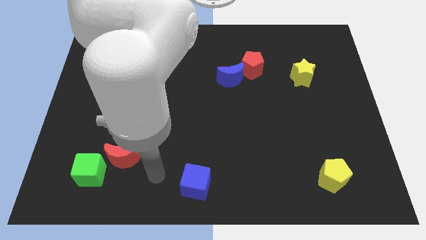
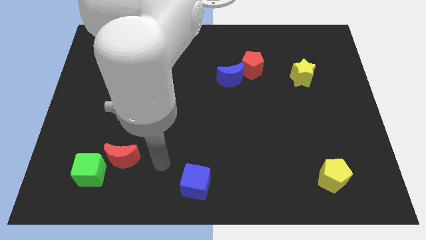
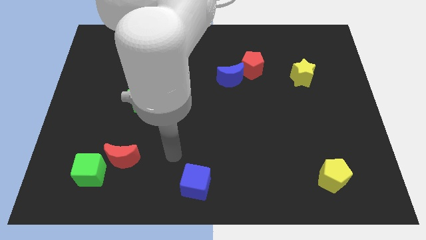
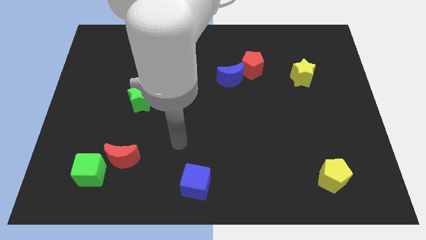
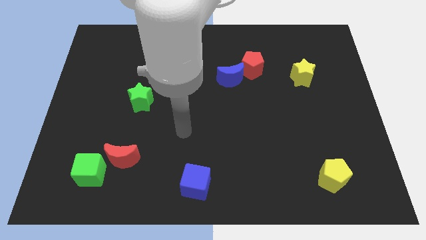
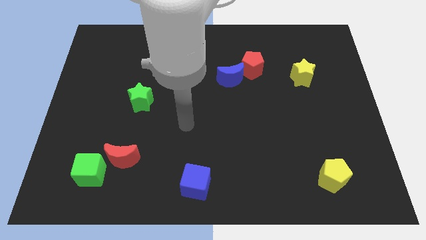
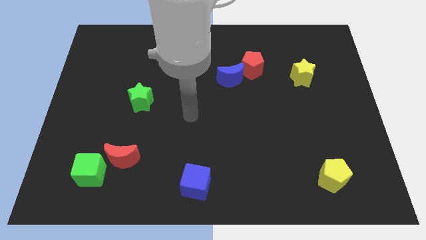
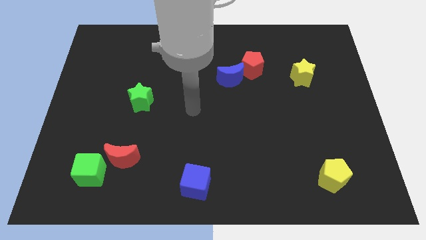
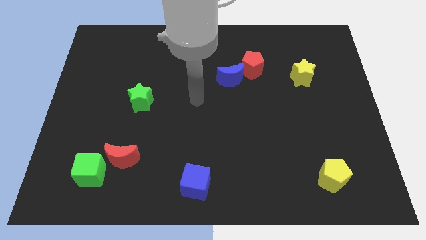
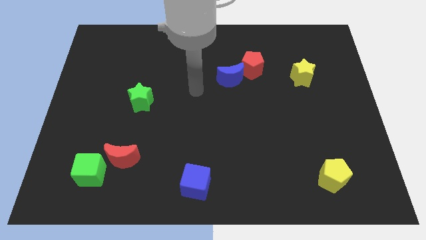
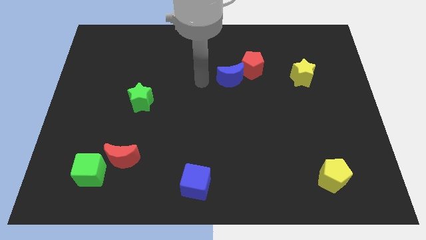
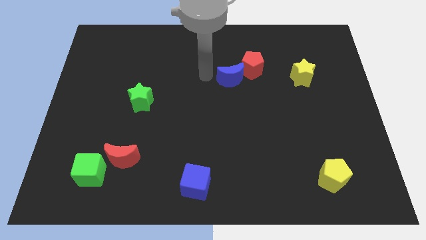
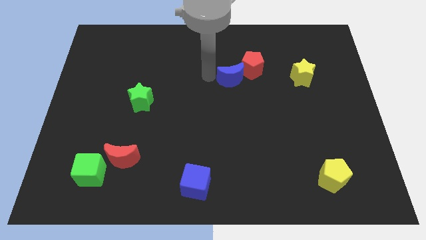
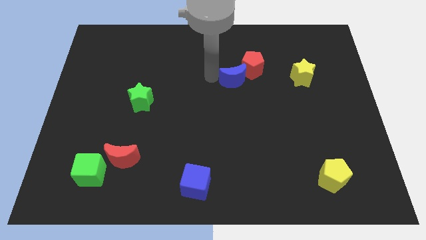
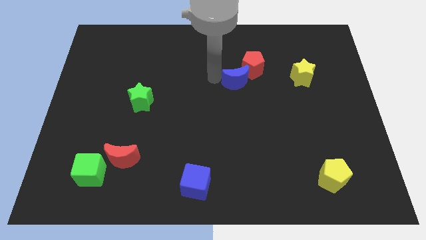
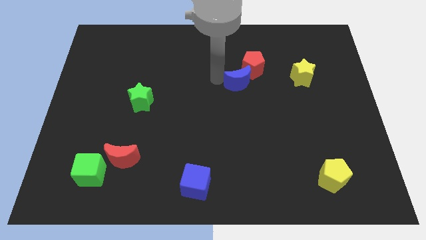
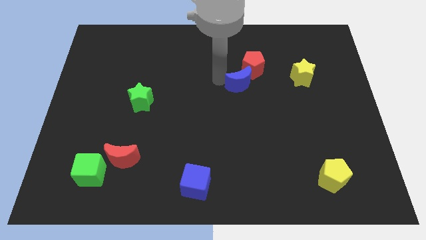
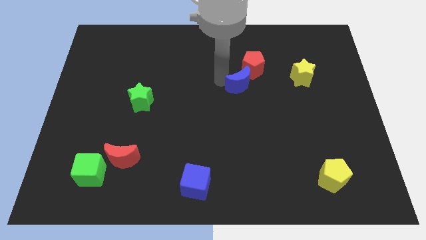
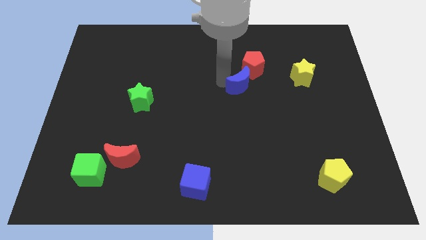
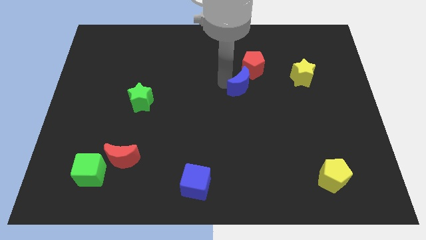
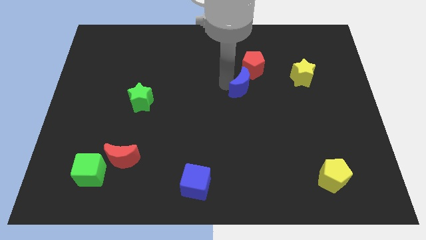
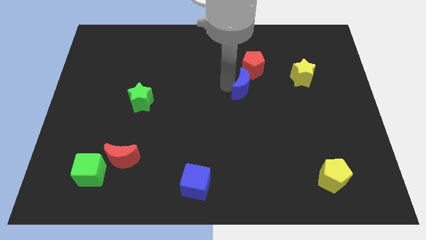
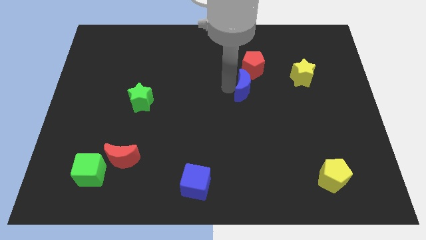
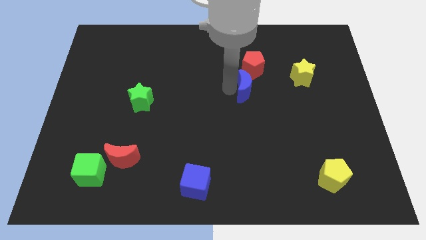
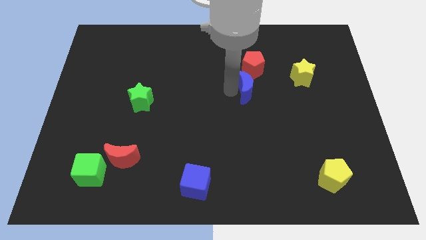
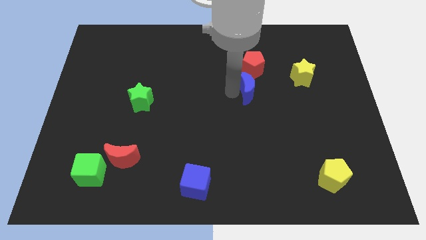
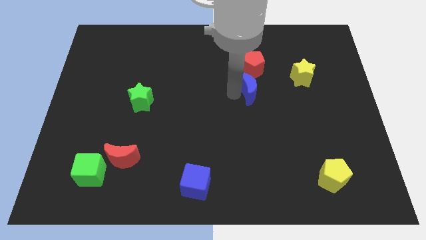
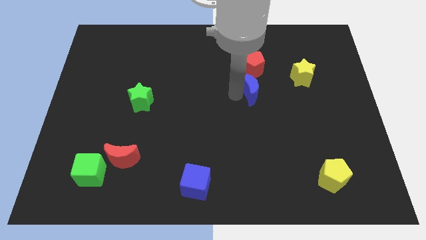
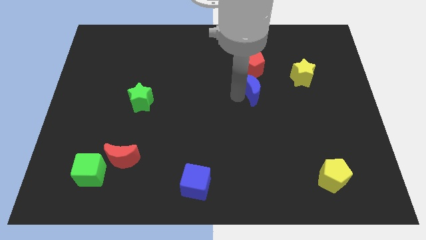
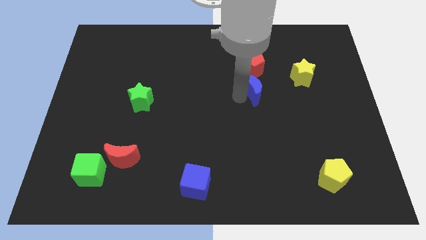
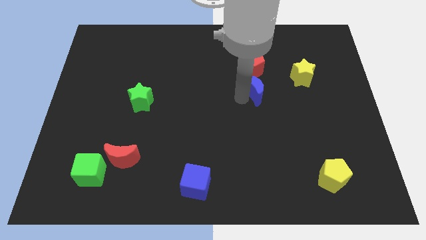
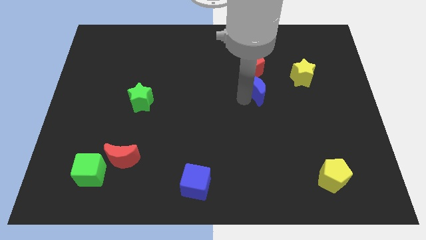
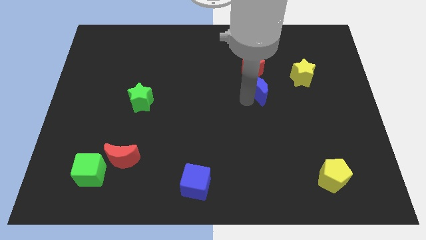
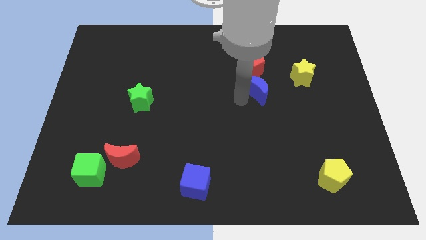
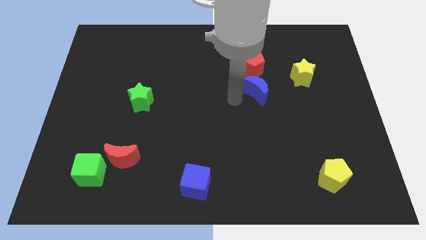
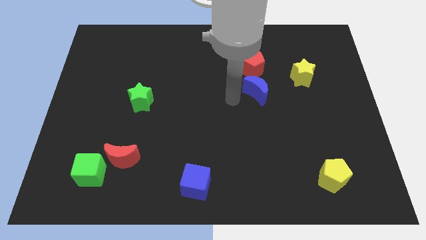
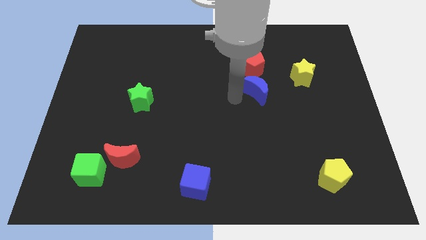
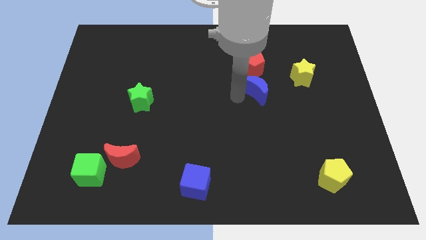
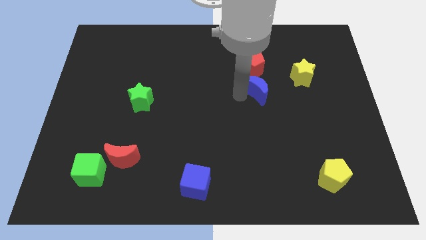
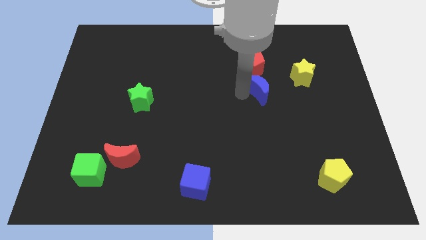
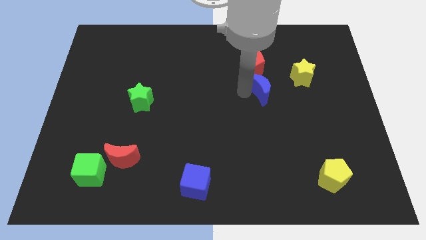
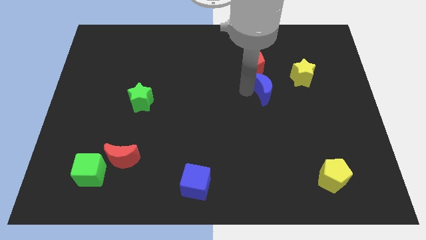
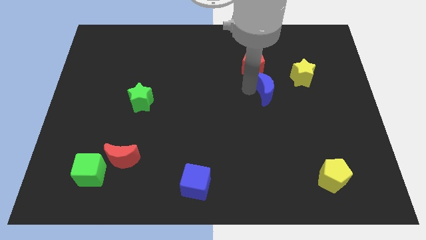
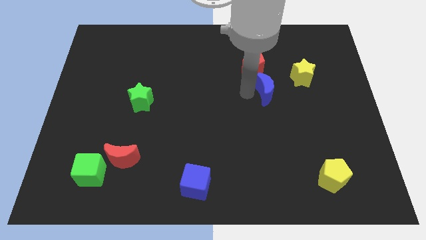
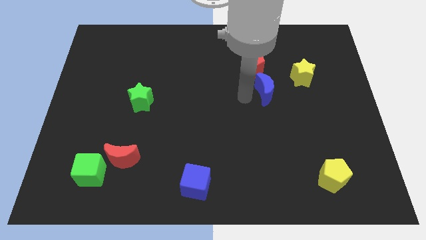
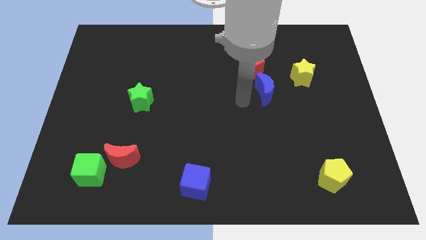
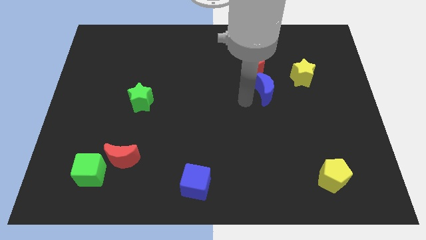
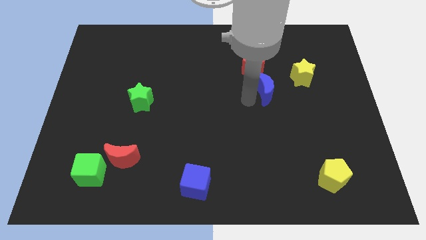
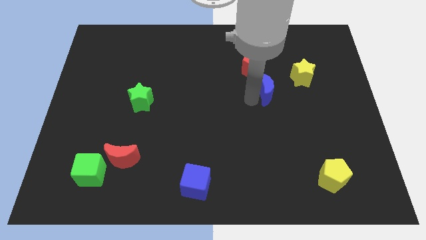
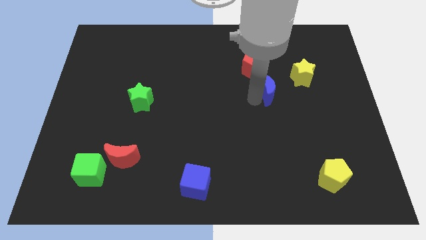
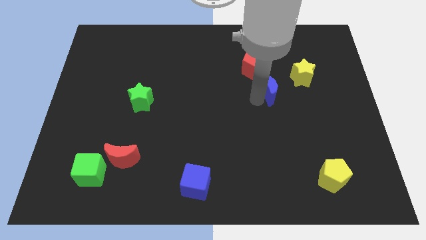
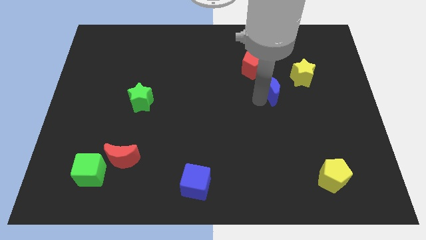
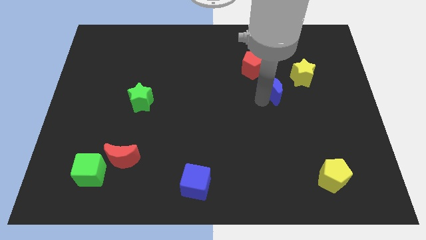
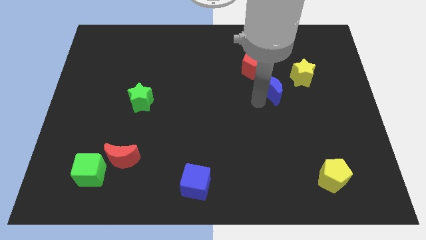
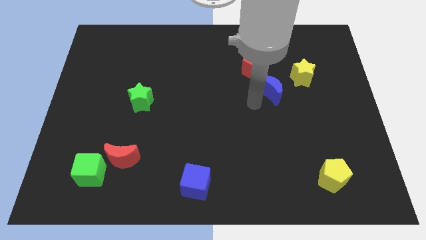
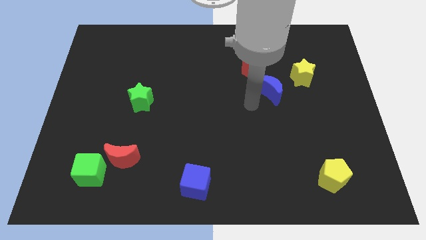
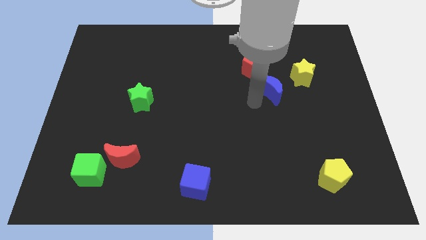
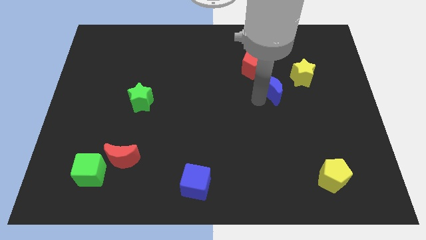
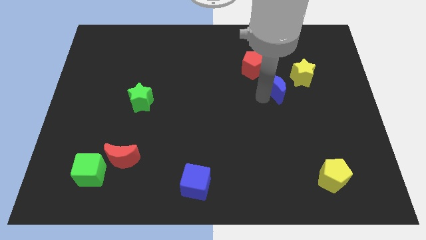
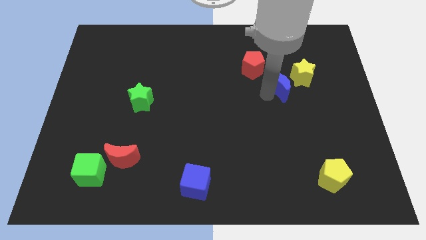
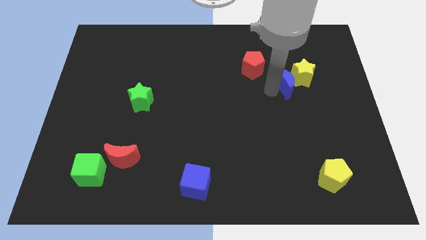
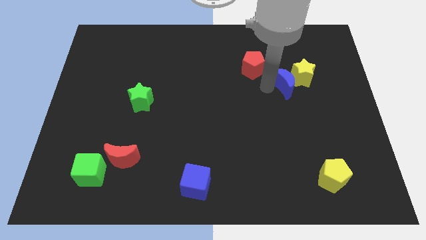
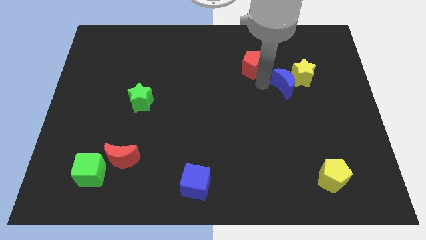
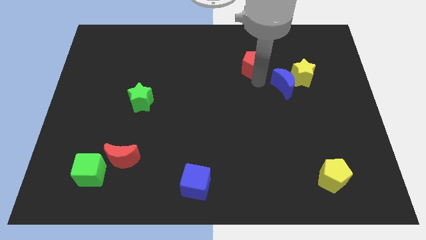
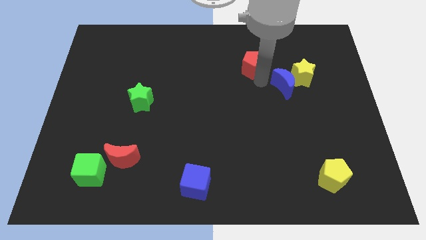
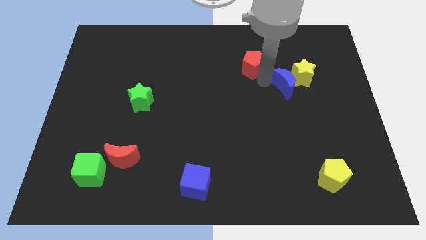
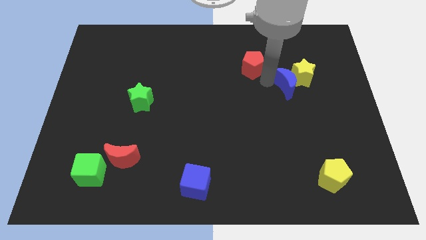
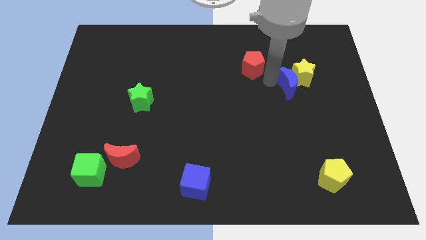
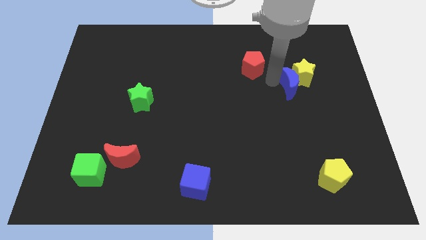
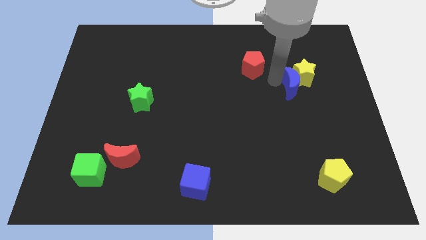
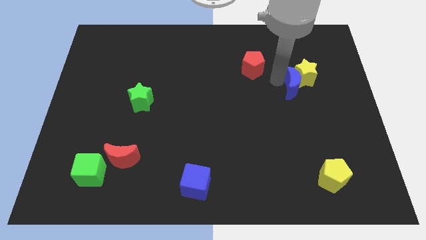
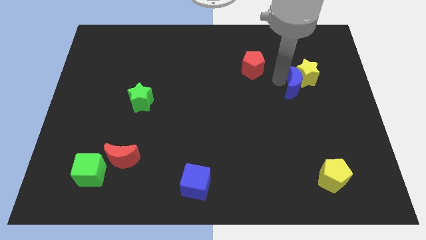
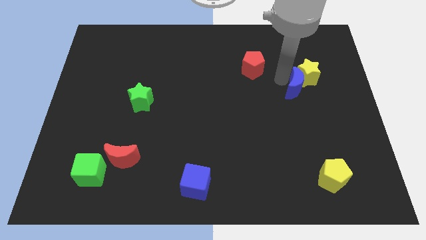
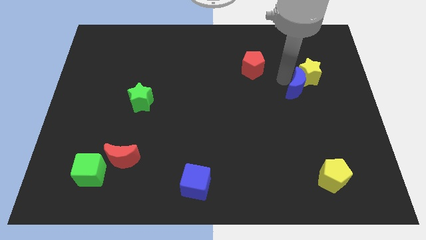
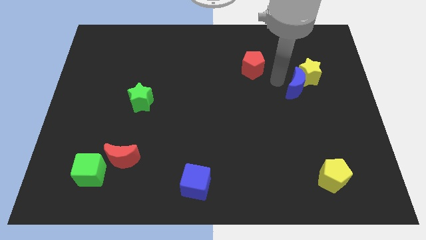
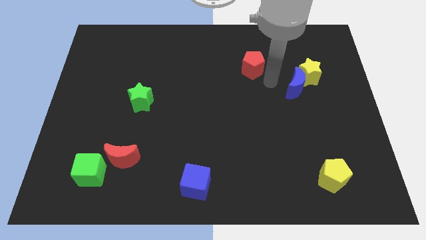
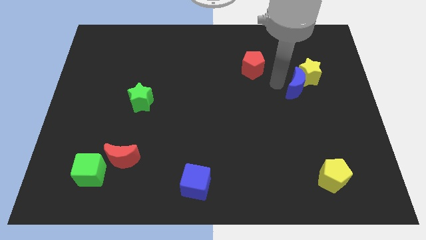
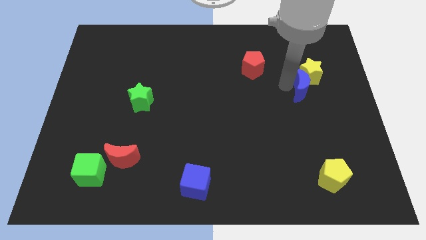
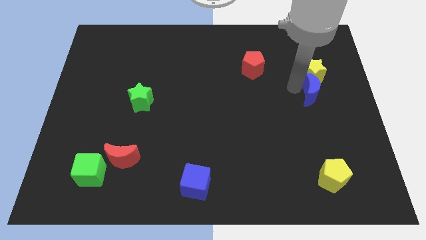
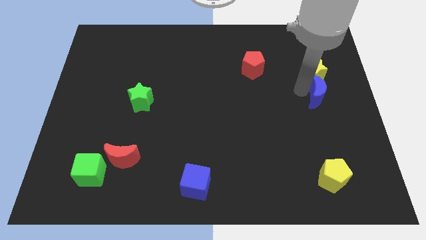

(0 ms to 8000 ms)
push the blue moon to the center right
